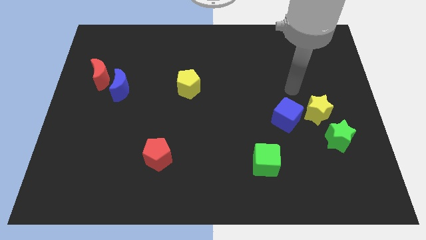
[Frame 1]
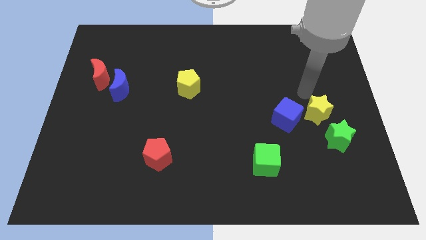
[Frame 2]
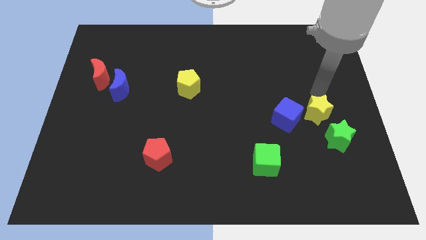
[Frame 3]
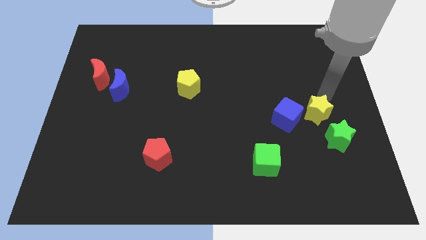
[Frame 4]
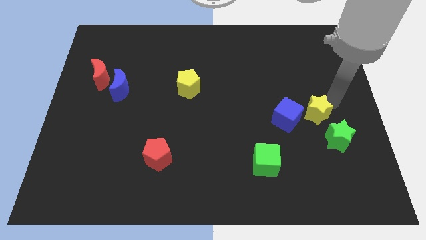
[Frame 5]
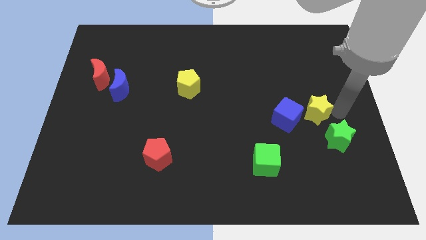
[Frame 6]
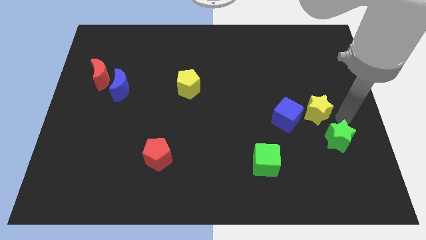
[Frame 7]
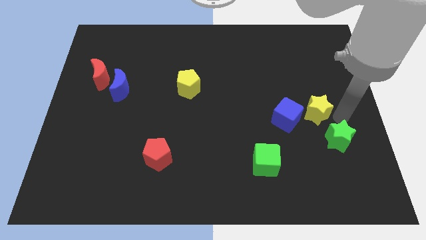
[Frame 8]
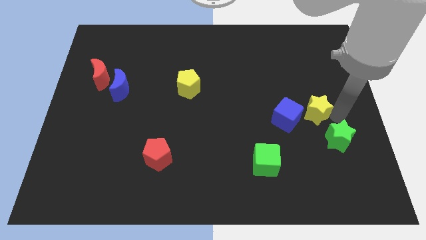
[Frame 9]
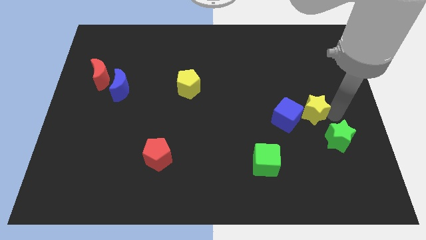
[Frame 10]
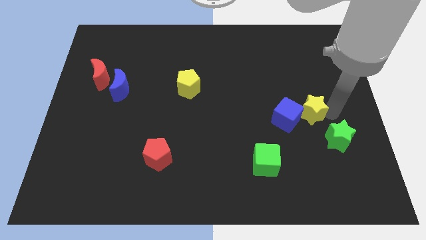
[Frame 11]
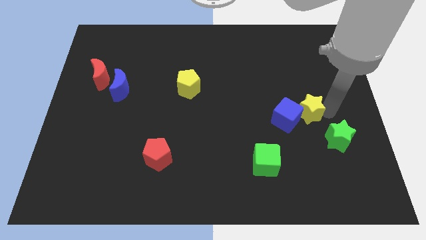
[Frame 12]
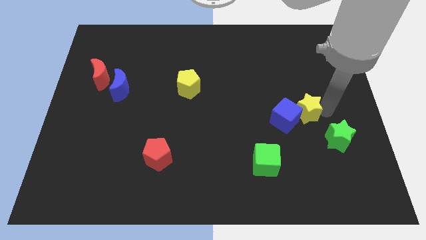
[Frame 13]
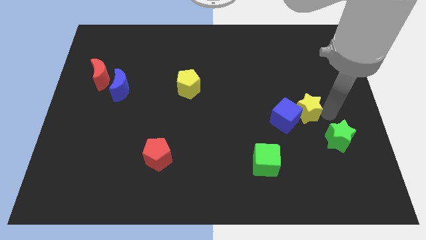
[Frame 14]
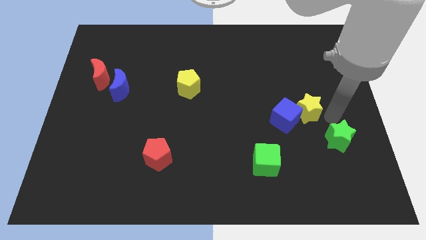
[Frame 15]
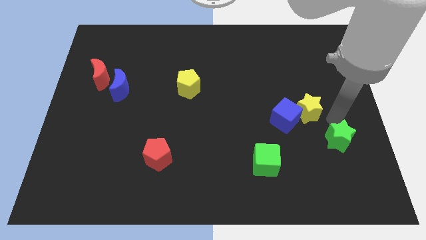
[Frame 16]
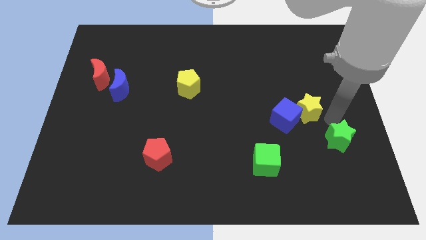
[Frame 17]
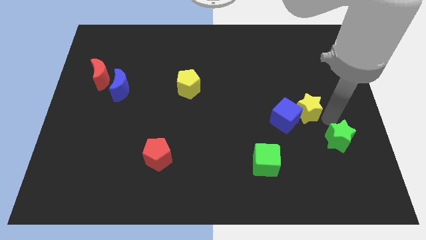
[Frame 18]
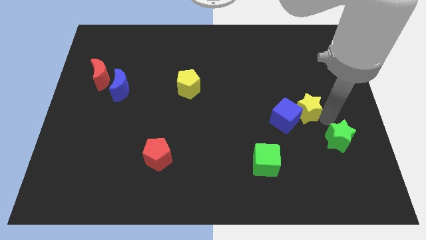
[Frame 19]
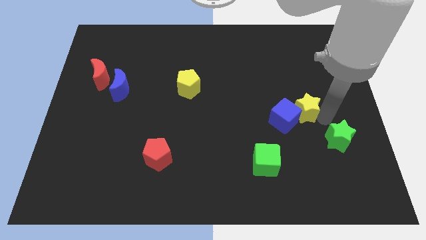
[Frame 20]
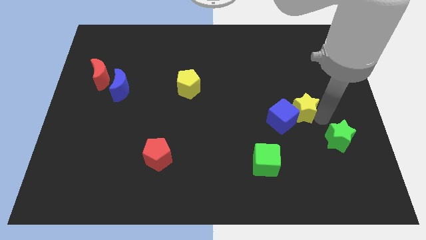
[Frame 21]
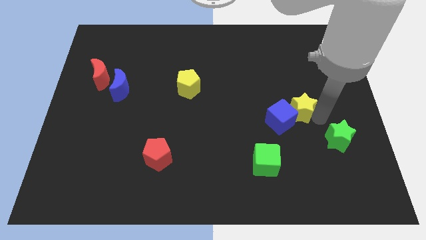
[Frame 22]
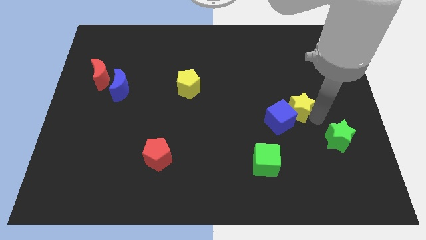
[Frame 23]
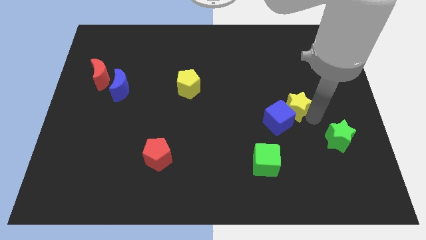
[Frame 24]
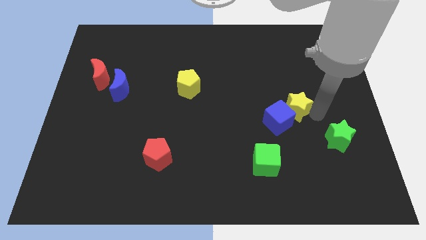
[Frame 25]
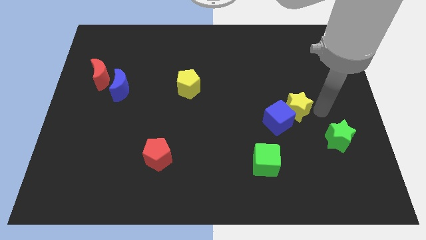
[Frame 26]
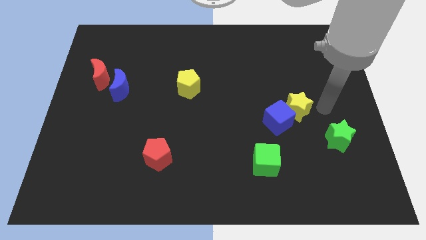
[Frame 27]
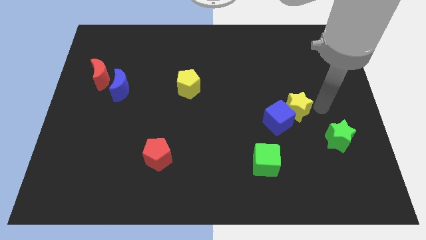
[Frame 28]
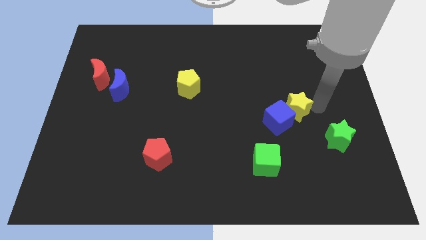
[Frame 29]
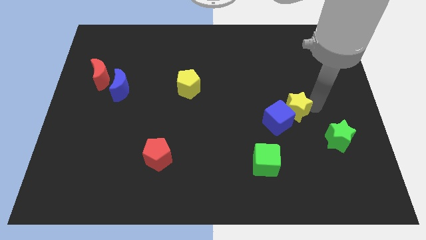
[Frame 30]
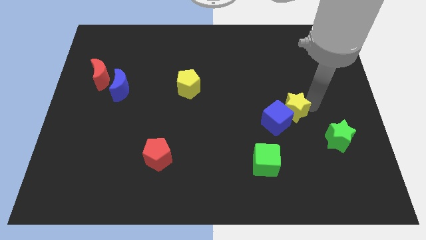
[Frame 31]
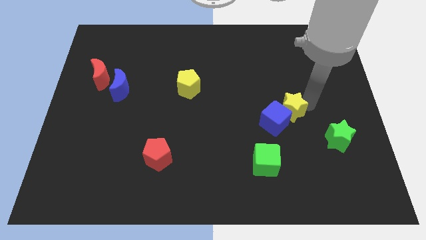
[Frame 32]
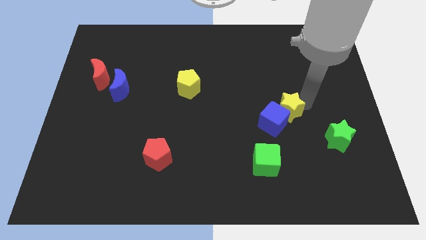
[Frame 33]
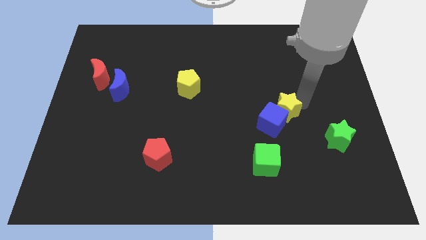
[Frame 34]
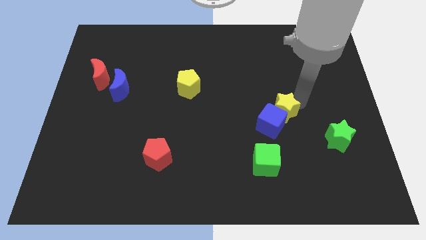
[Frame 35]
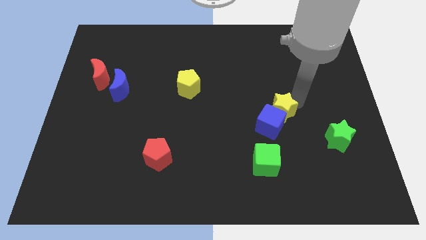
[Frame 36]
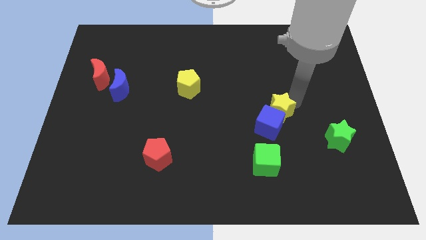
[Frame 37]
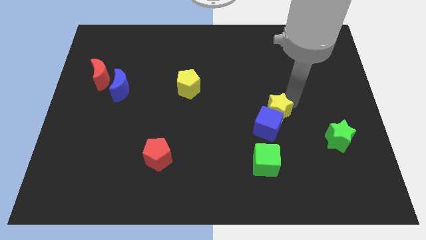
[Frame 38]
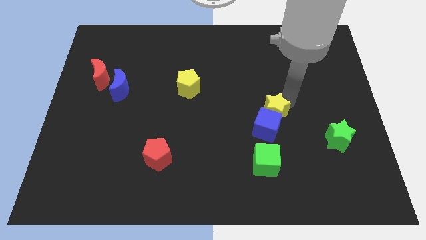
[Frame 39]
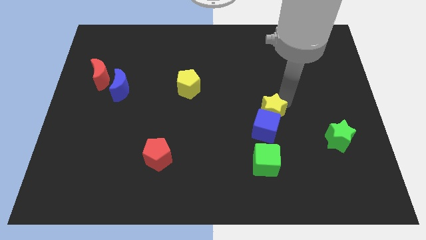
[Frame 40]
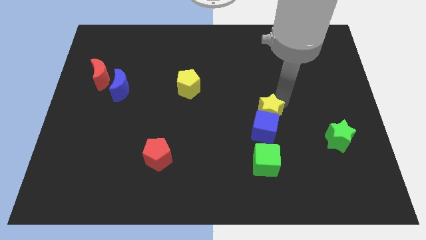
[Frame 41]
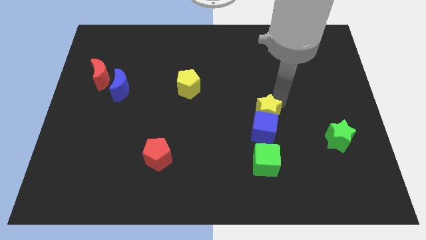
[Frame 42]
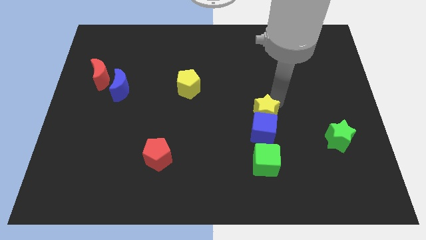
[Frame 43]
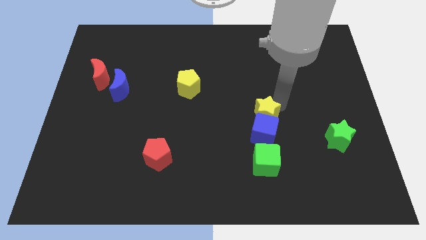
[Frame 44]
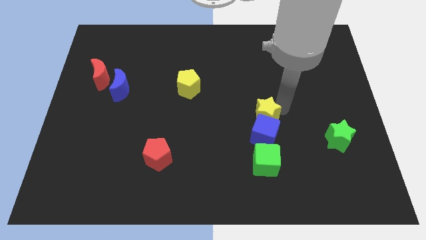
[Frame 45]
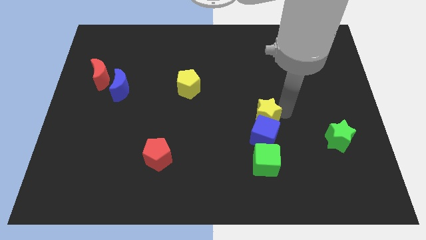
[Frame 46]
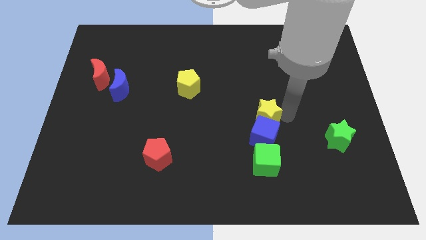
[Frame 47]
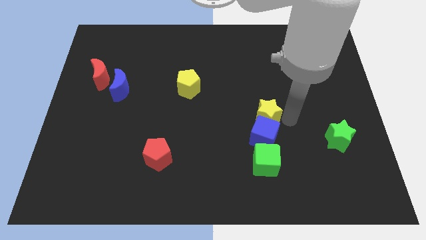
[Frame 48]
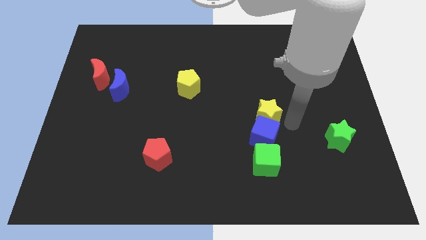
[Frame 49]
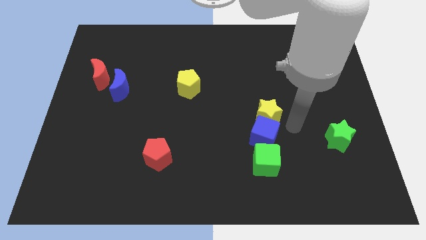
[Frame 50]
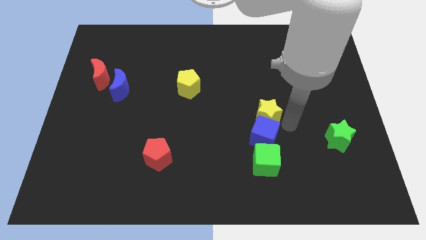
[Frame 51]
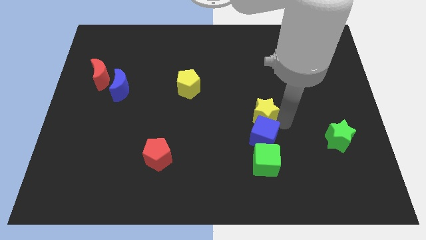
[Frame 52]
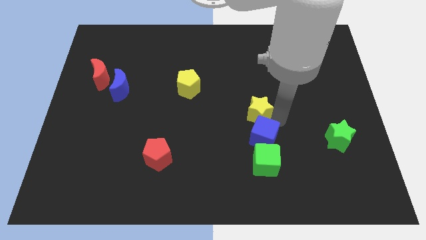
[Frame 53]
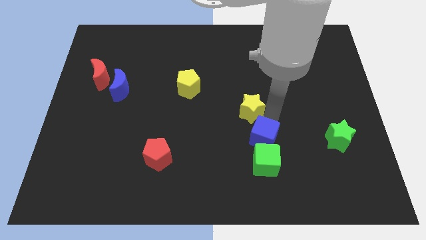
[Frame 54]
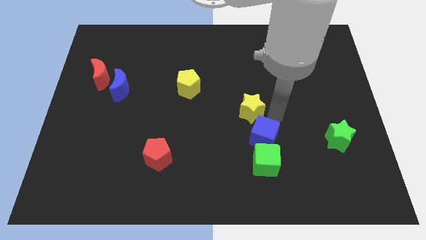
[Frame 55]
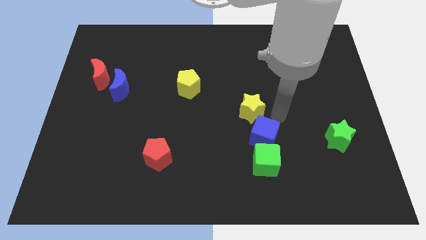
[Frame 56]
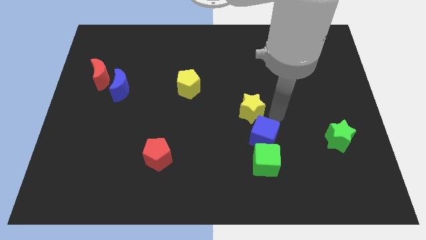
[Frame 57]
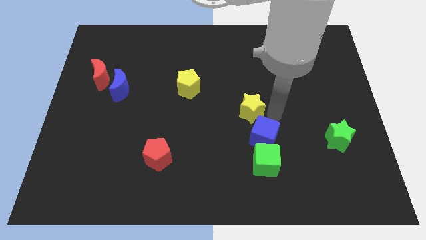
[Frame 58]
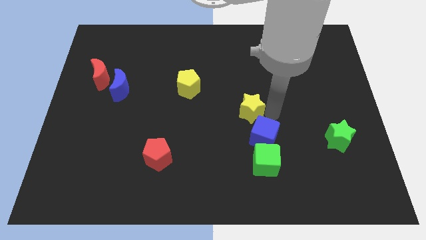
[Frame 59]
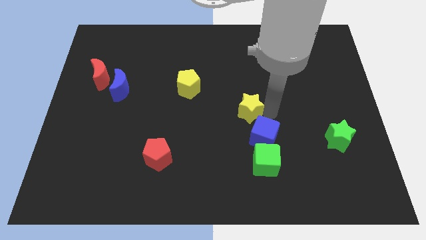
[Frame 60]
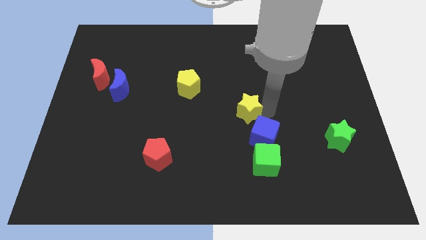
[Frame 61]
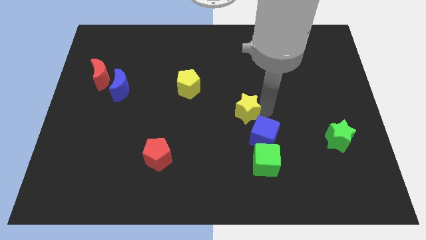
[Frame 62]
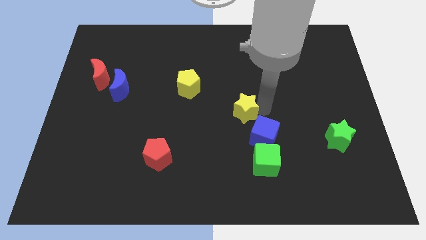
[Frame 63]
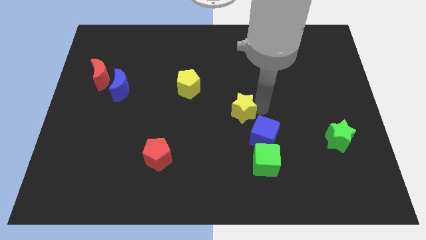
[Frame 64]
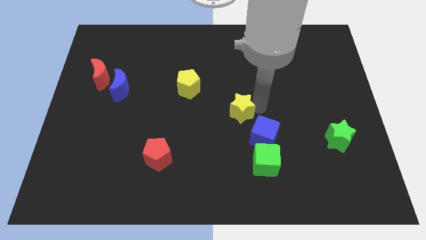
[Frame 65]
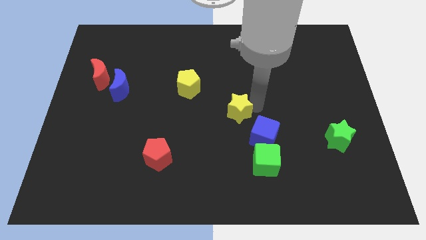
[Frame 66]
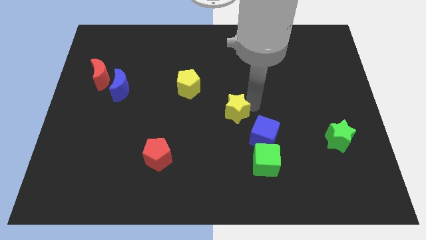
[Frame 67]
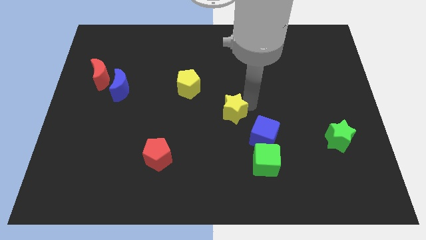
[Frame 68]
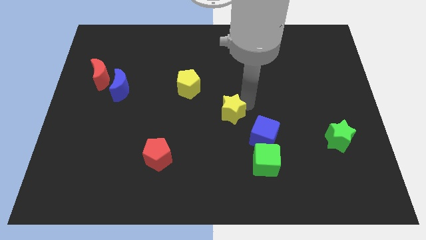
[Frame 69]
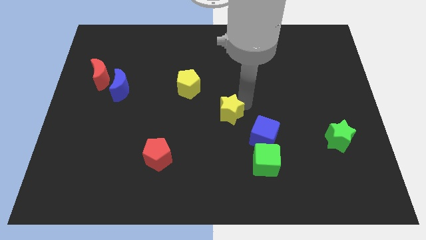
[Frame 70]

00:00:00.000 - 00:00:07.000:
slide the yellow star left

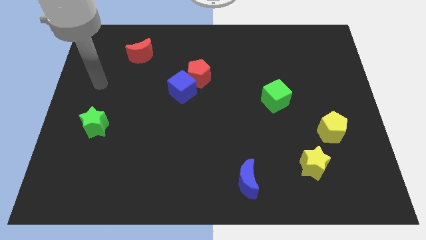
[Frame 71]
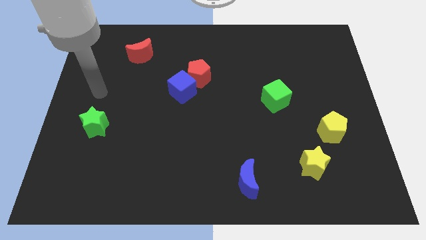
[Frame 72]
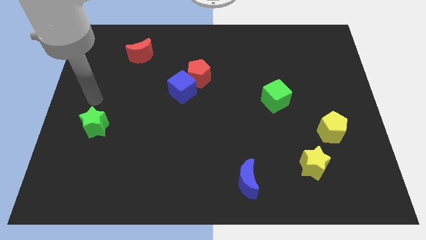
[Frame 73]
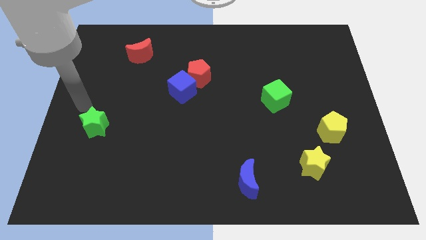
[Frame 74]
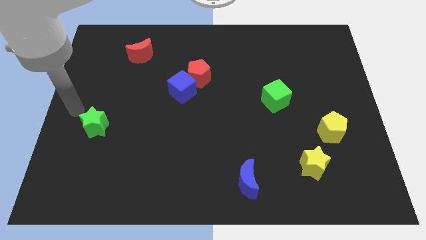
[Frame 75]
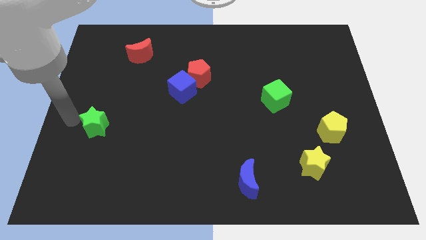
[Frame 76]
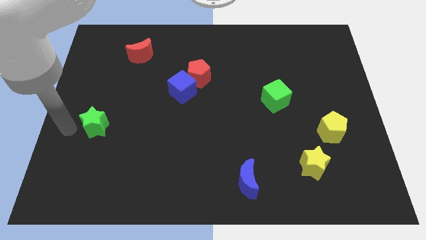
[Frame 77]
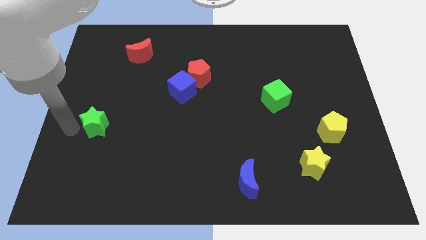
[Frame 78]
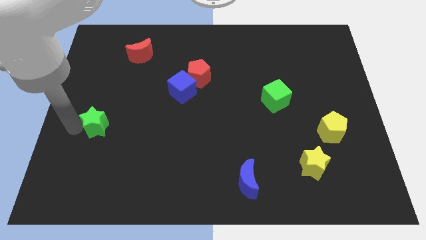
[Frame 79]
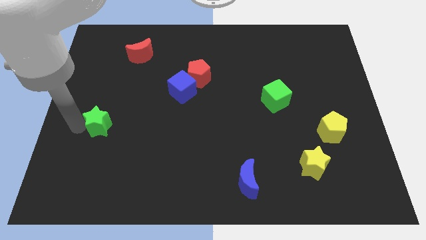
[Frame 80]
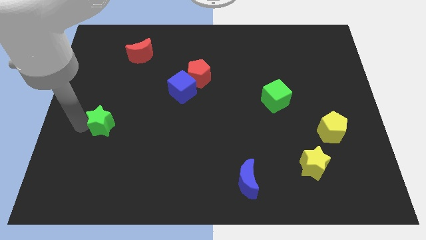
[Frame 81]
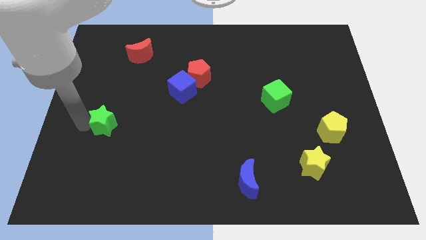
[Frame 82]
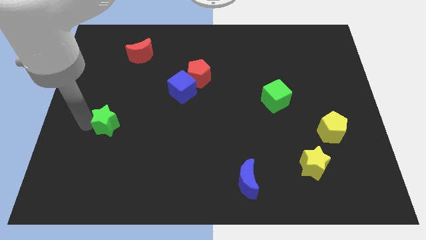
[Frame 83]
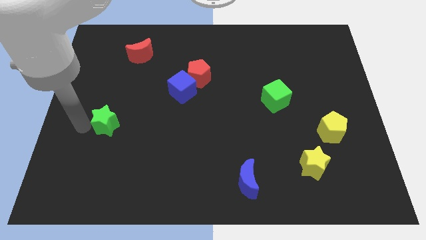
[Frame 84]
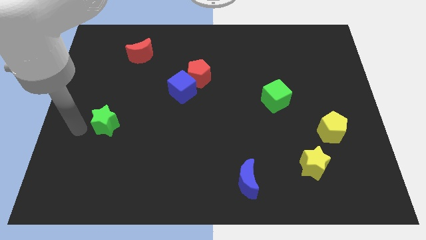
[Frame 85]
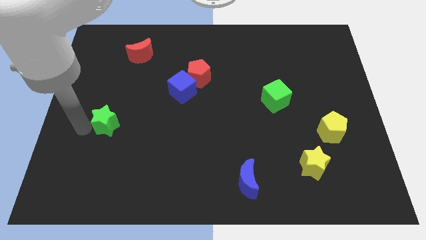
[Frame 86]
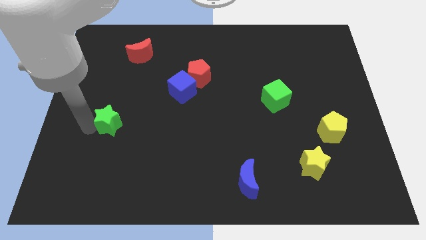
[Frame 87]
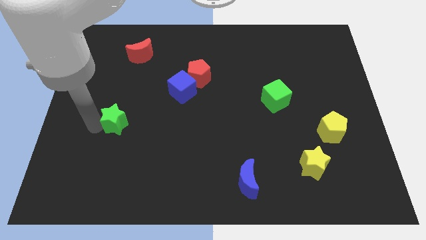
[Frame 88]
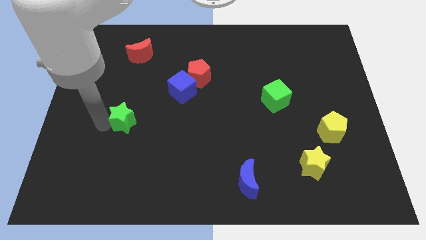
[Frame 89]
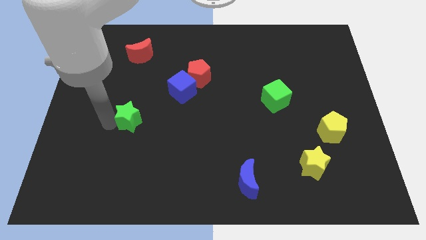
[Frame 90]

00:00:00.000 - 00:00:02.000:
push the green star right a little
